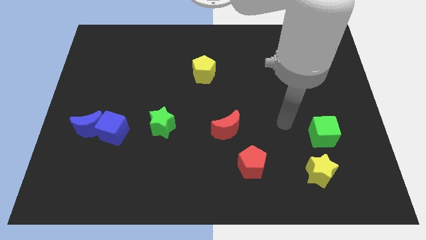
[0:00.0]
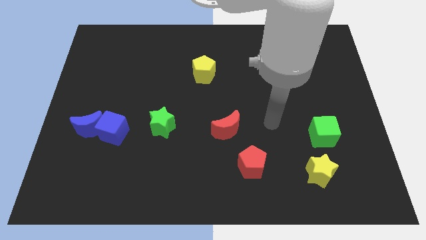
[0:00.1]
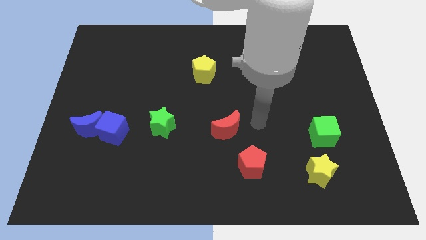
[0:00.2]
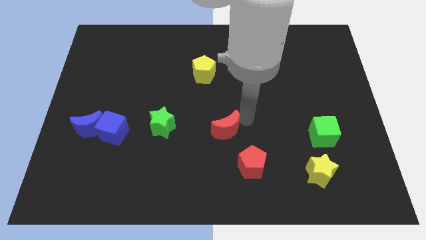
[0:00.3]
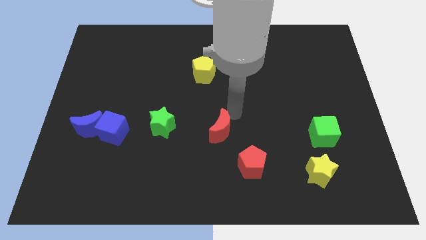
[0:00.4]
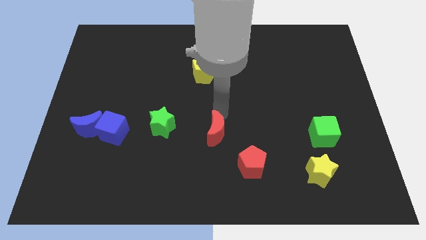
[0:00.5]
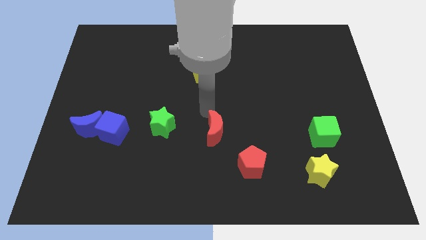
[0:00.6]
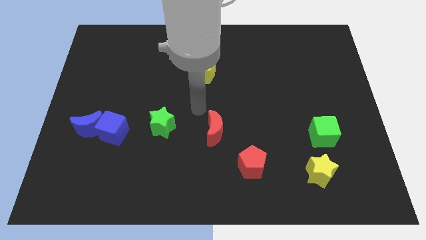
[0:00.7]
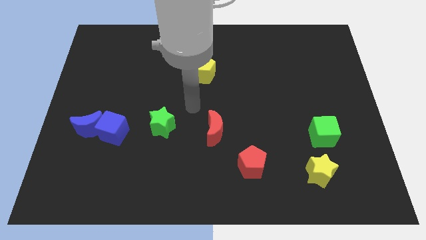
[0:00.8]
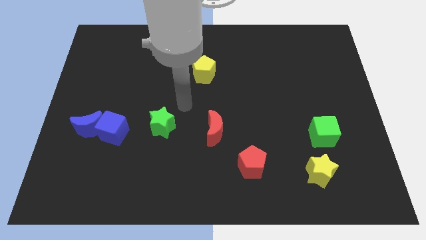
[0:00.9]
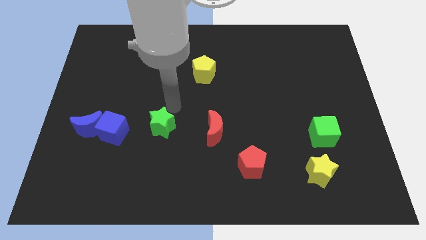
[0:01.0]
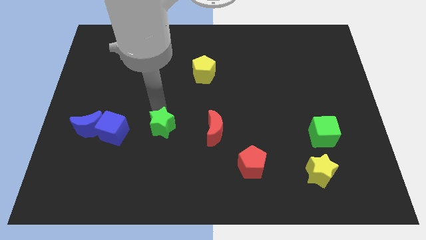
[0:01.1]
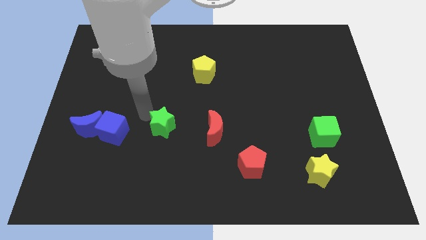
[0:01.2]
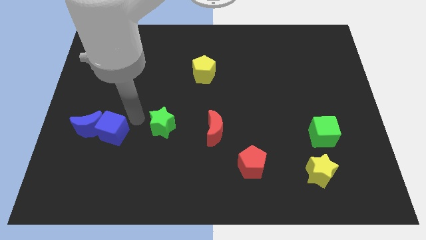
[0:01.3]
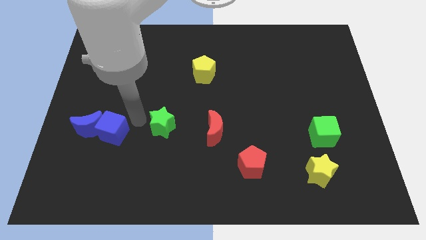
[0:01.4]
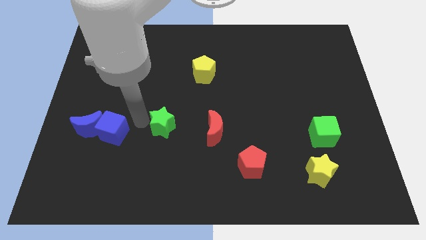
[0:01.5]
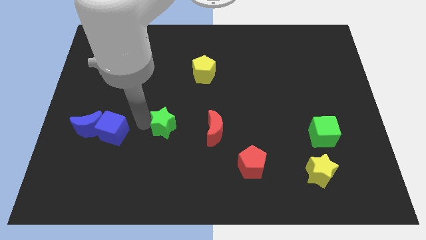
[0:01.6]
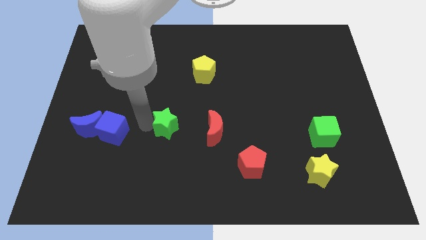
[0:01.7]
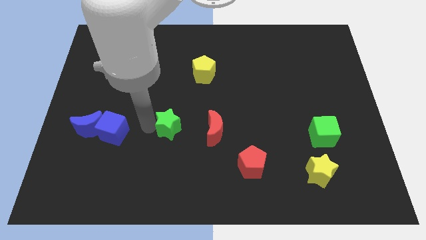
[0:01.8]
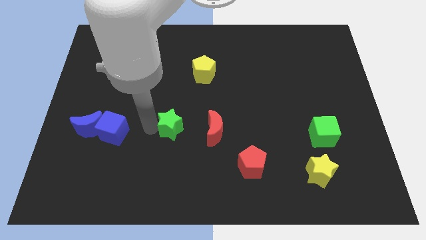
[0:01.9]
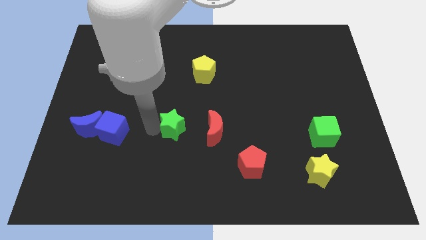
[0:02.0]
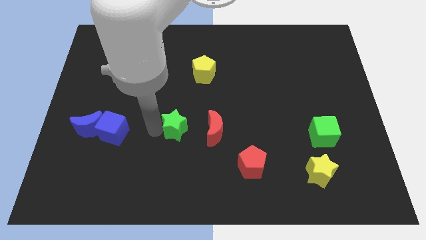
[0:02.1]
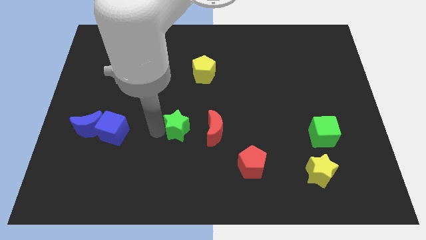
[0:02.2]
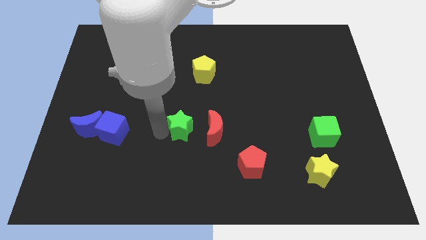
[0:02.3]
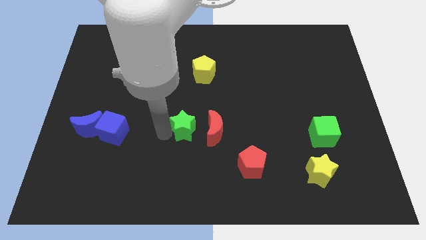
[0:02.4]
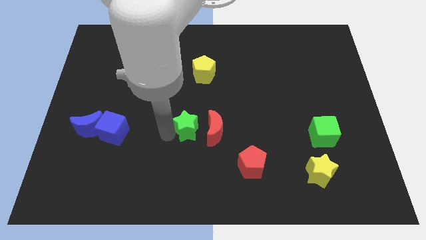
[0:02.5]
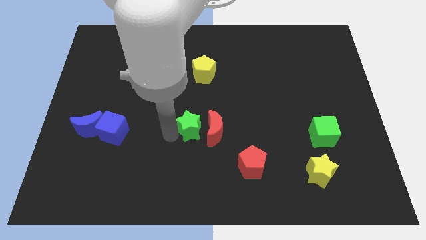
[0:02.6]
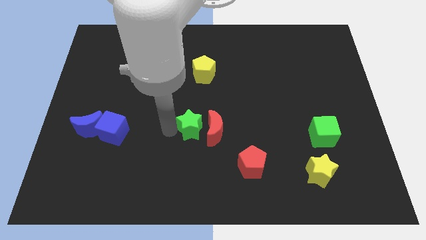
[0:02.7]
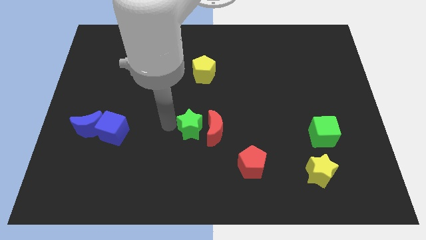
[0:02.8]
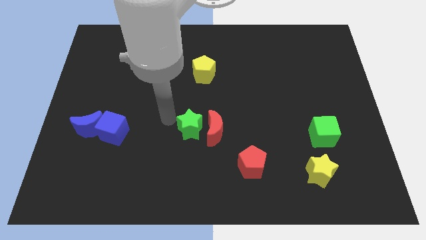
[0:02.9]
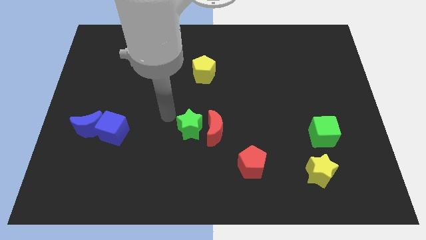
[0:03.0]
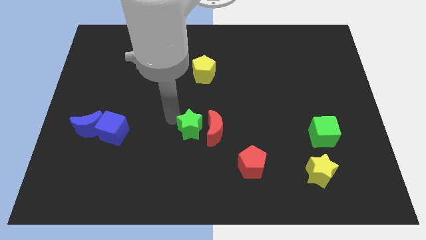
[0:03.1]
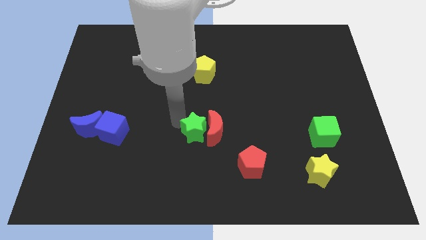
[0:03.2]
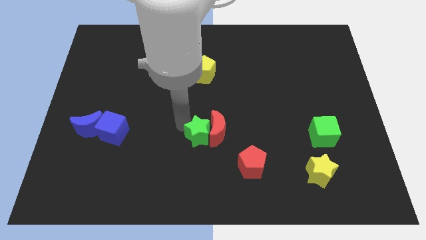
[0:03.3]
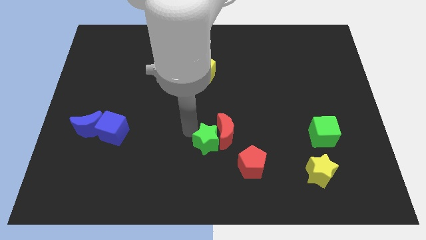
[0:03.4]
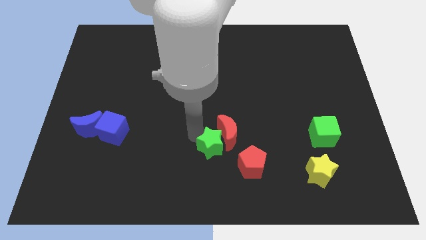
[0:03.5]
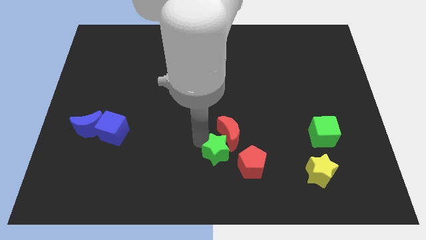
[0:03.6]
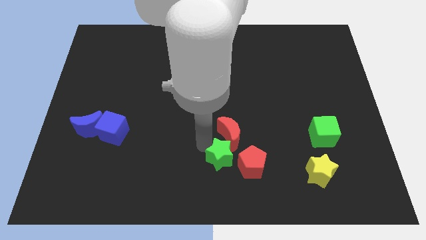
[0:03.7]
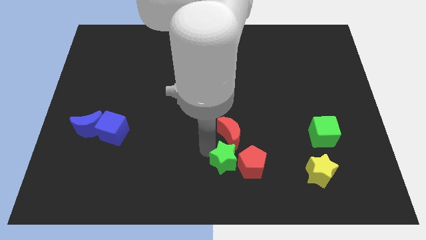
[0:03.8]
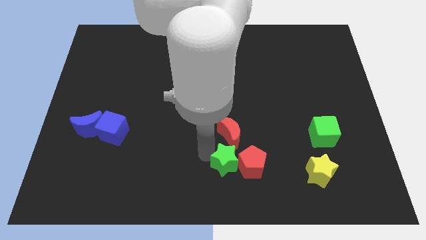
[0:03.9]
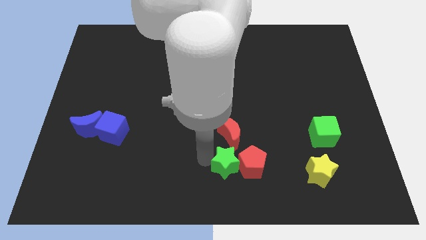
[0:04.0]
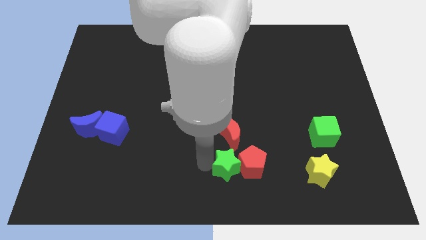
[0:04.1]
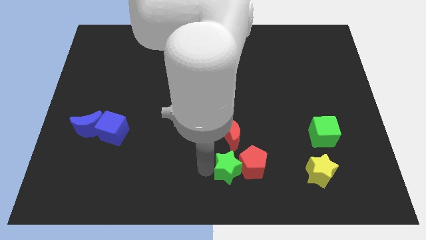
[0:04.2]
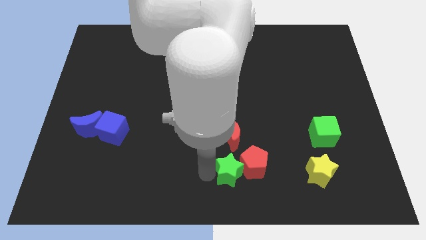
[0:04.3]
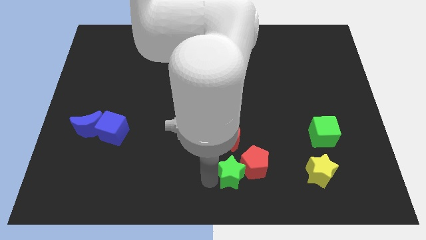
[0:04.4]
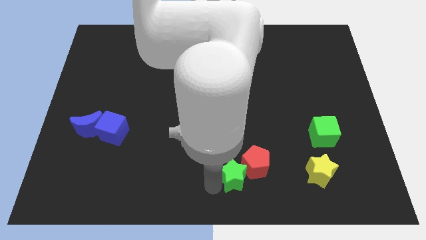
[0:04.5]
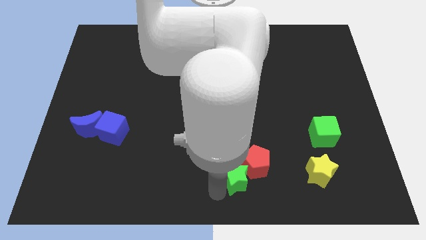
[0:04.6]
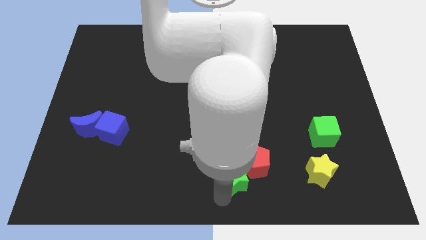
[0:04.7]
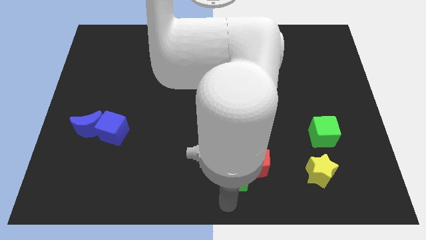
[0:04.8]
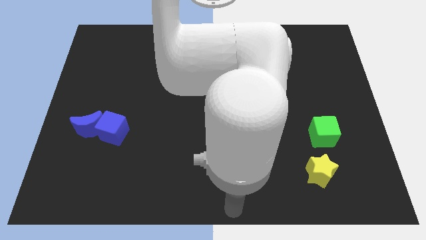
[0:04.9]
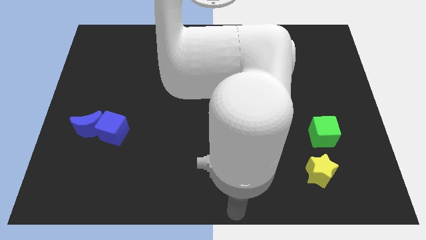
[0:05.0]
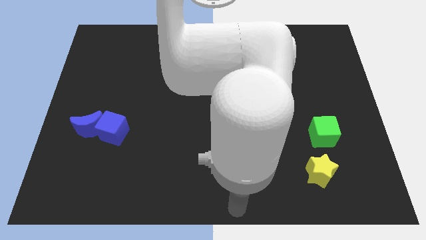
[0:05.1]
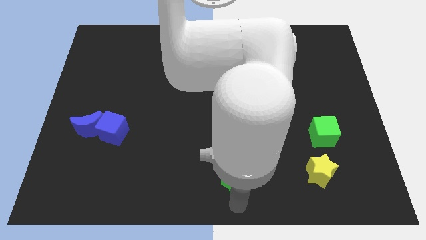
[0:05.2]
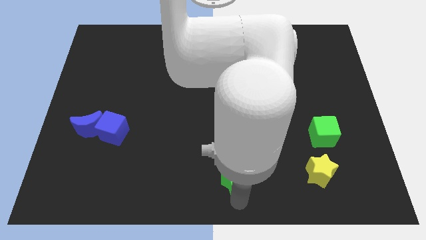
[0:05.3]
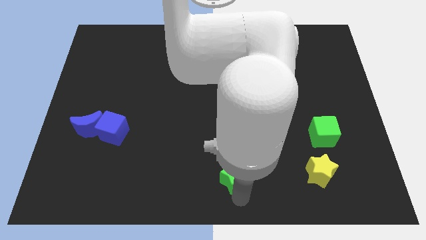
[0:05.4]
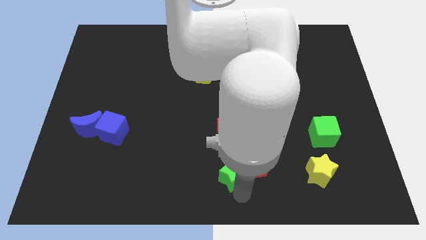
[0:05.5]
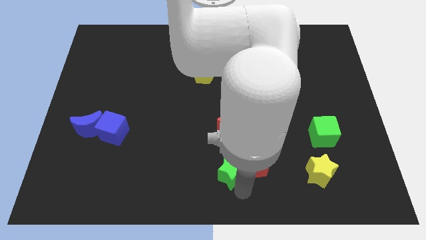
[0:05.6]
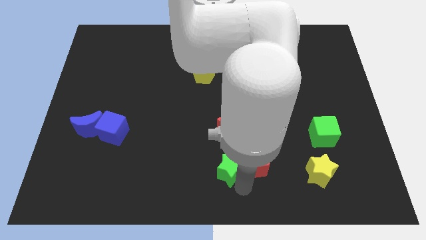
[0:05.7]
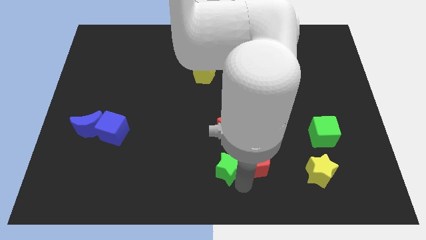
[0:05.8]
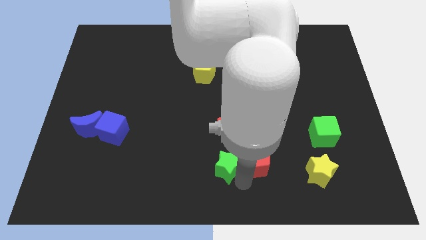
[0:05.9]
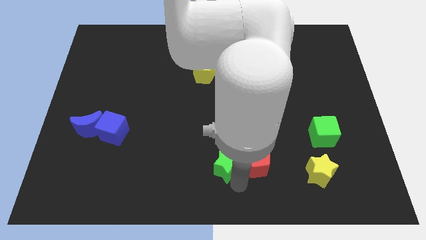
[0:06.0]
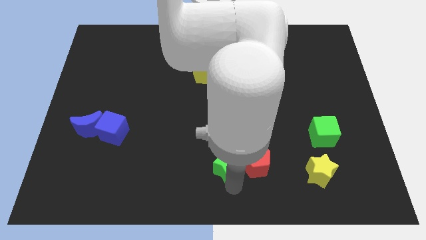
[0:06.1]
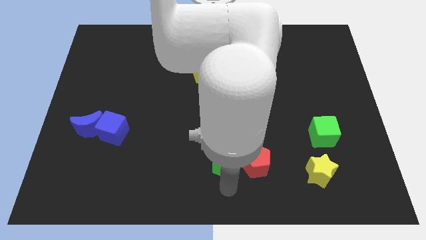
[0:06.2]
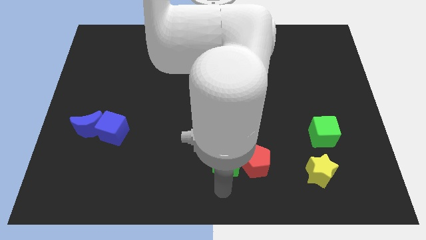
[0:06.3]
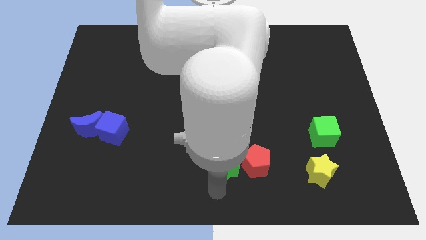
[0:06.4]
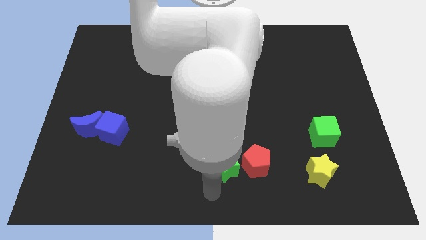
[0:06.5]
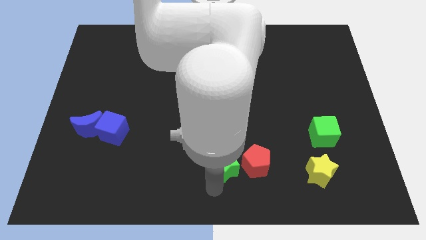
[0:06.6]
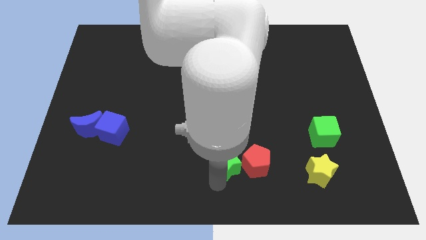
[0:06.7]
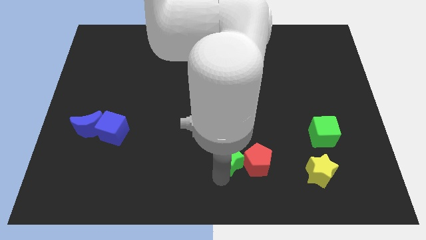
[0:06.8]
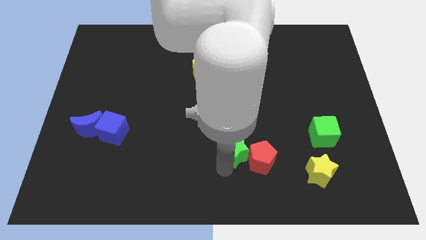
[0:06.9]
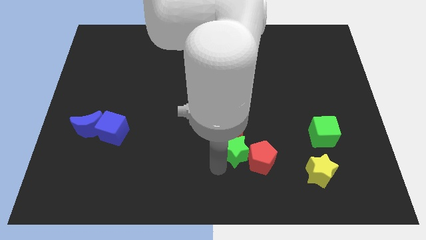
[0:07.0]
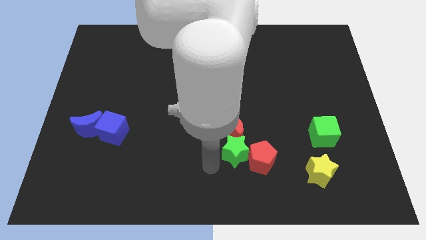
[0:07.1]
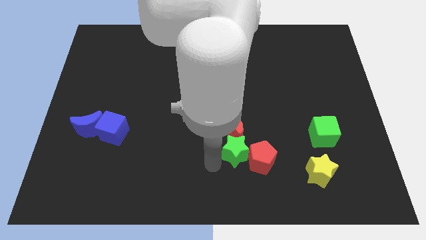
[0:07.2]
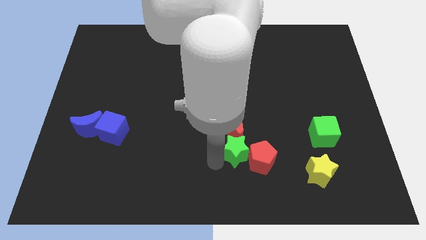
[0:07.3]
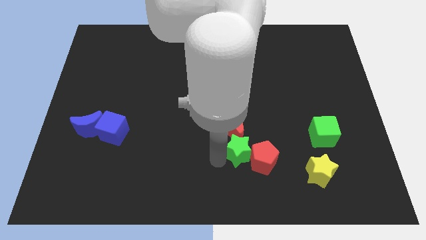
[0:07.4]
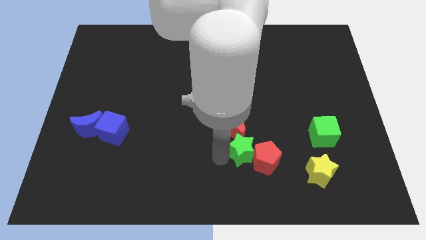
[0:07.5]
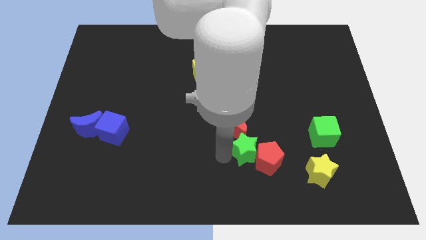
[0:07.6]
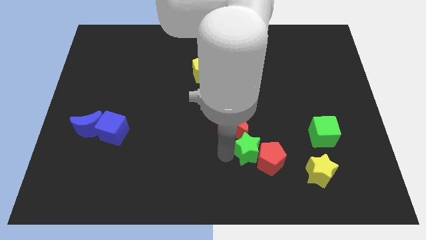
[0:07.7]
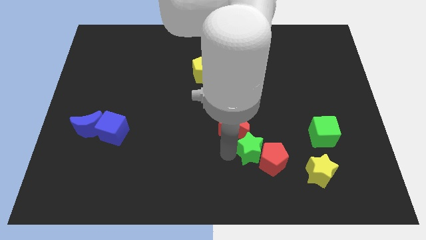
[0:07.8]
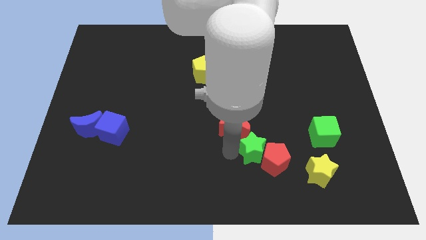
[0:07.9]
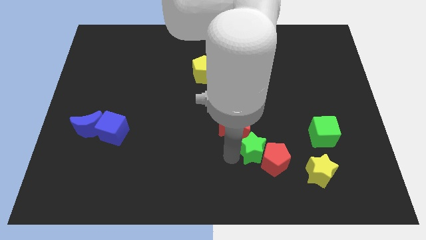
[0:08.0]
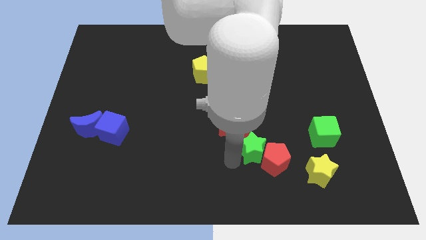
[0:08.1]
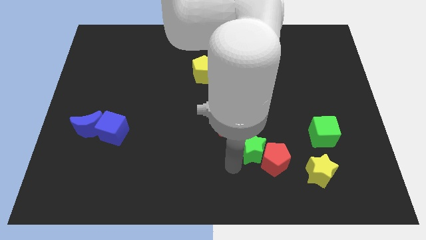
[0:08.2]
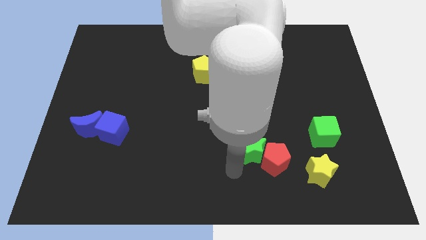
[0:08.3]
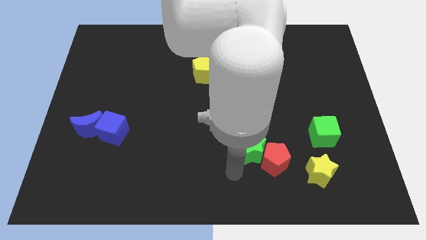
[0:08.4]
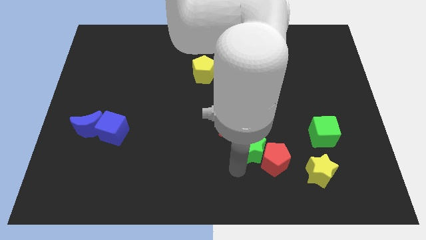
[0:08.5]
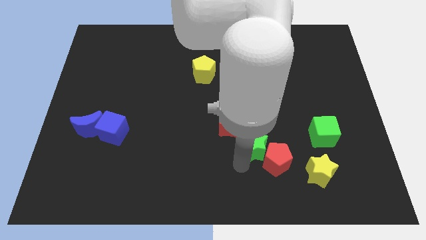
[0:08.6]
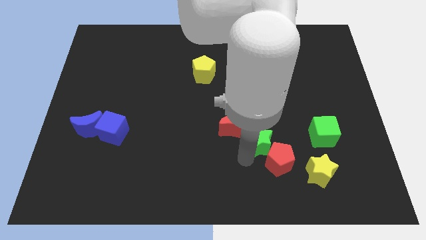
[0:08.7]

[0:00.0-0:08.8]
slide the green star just left of the green cube
